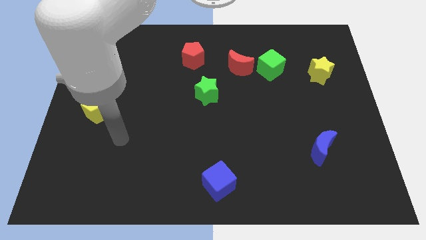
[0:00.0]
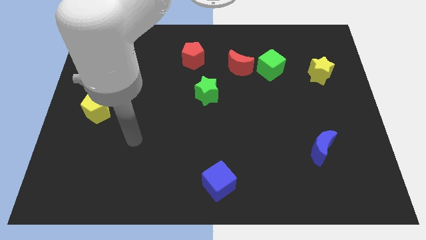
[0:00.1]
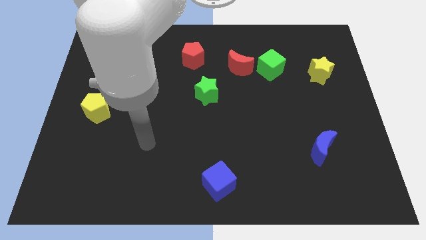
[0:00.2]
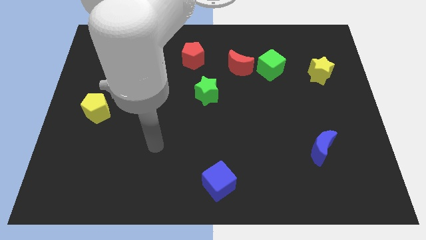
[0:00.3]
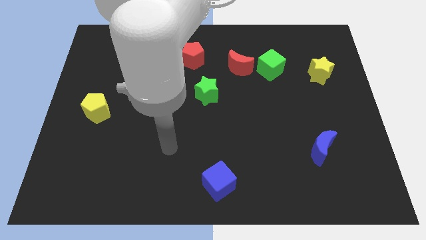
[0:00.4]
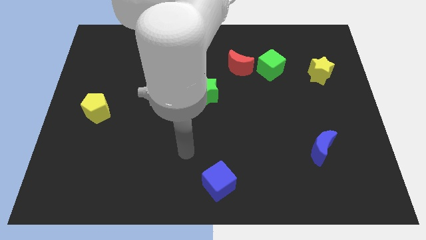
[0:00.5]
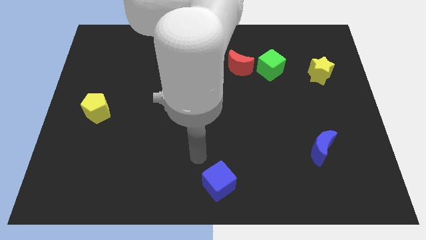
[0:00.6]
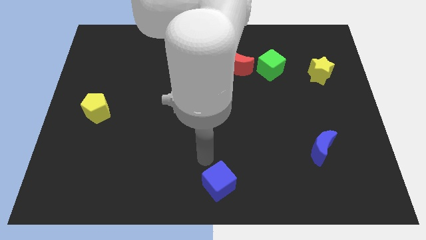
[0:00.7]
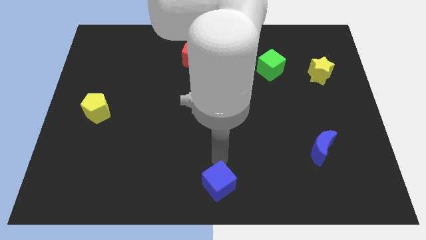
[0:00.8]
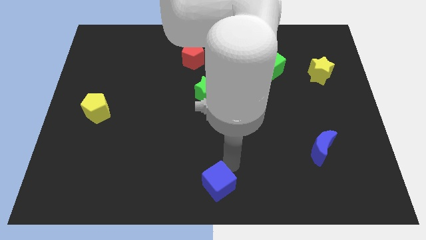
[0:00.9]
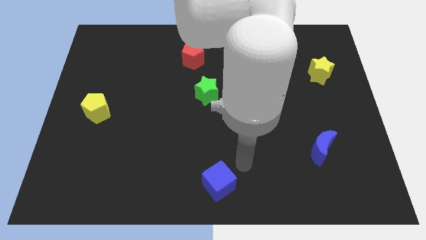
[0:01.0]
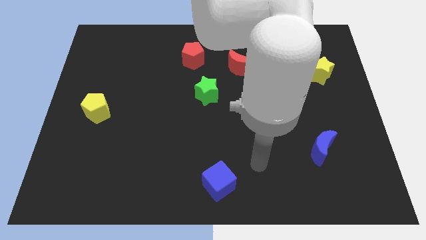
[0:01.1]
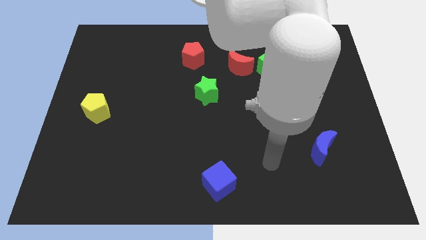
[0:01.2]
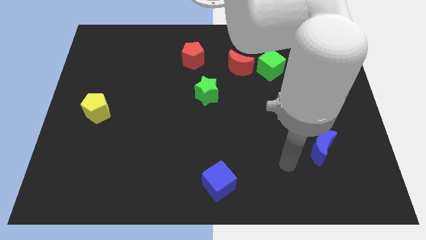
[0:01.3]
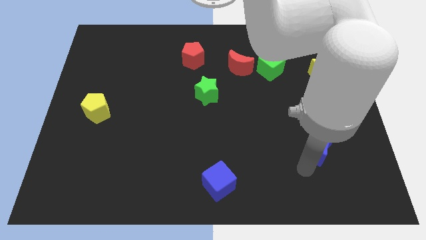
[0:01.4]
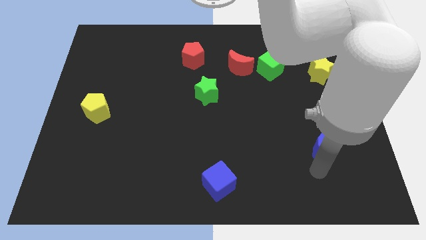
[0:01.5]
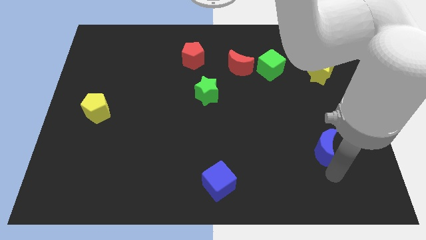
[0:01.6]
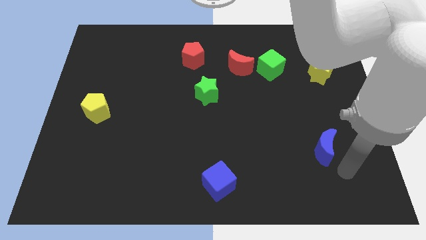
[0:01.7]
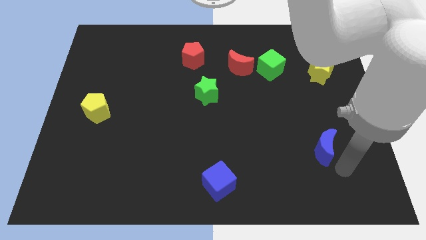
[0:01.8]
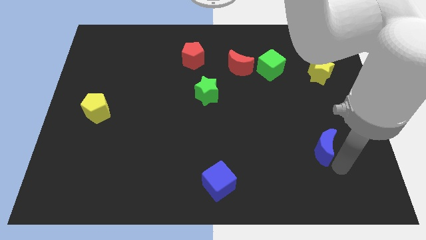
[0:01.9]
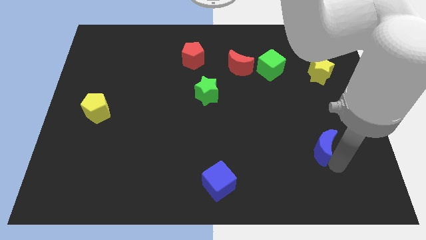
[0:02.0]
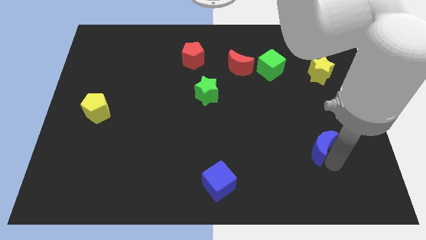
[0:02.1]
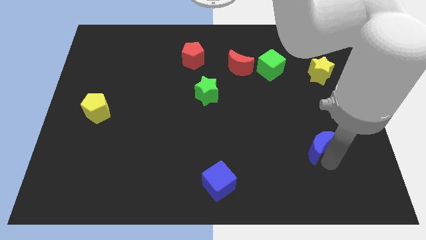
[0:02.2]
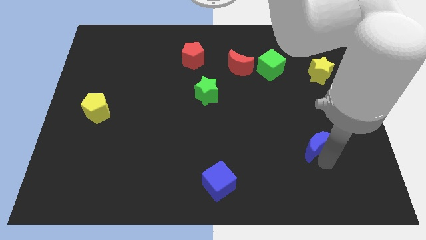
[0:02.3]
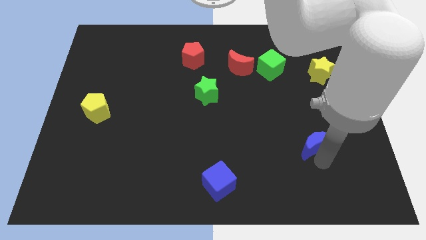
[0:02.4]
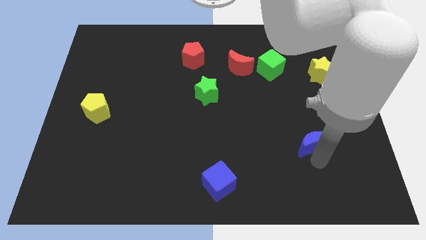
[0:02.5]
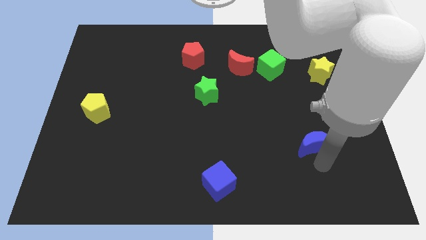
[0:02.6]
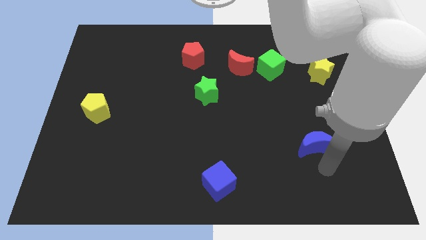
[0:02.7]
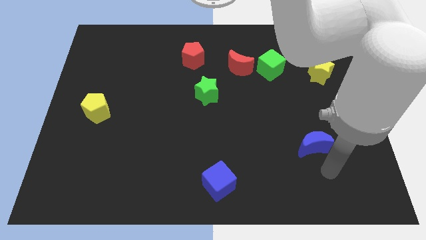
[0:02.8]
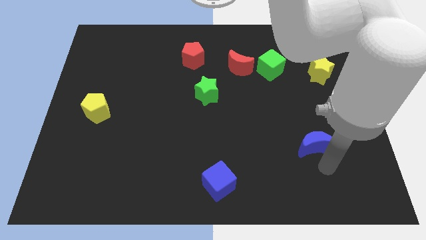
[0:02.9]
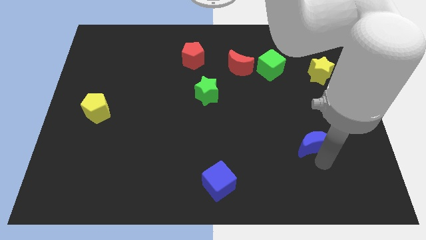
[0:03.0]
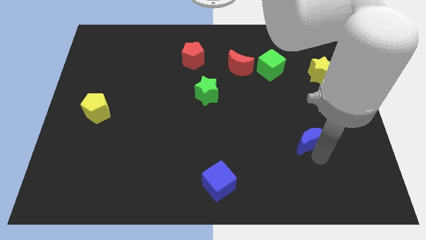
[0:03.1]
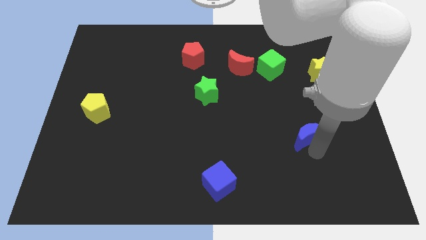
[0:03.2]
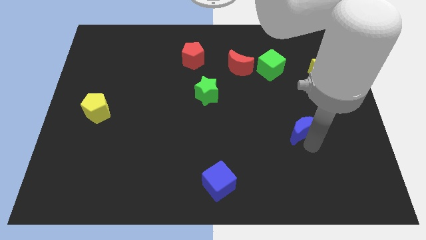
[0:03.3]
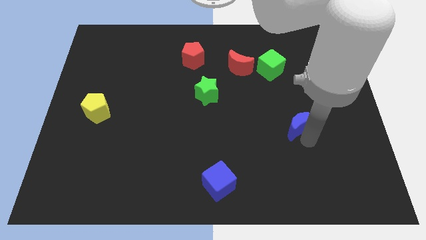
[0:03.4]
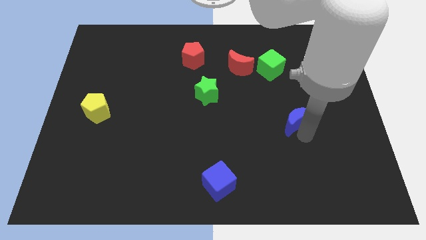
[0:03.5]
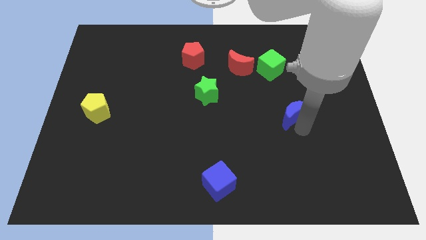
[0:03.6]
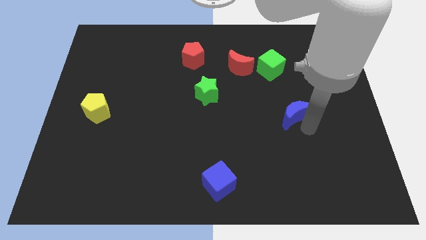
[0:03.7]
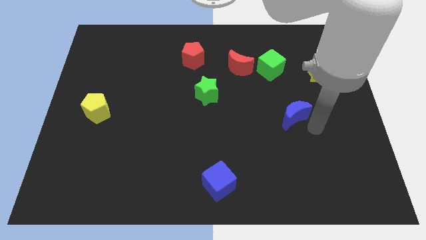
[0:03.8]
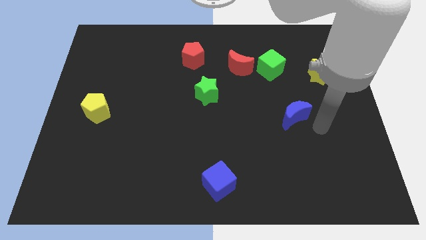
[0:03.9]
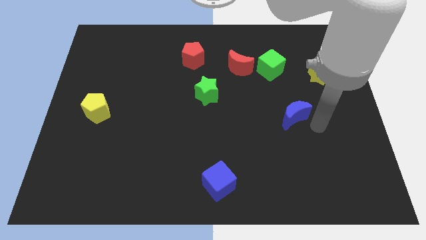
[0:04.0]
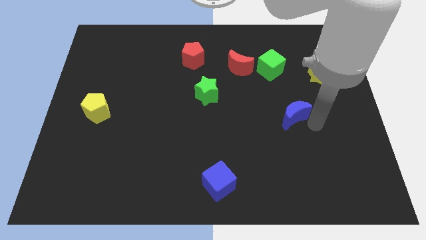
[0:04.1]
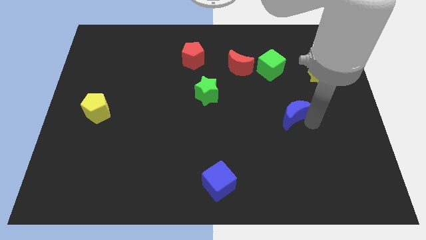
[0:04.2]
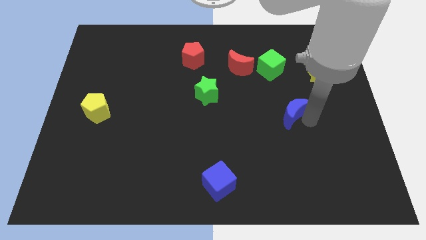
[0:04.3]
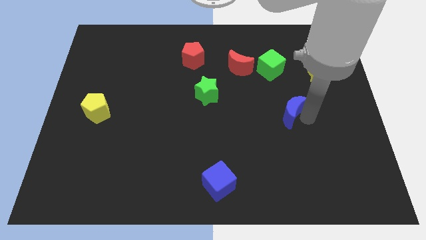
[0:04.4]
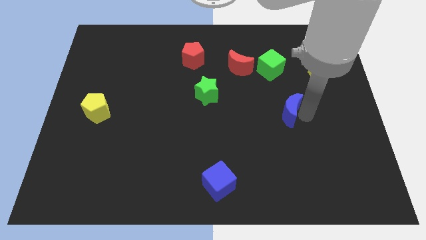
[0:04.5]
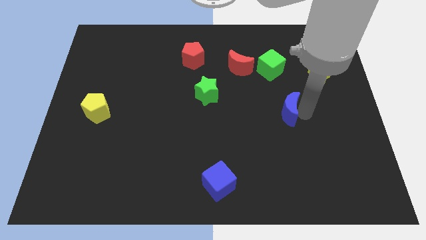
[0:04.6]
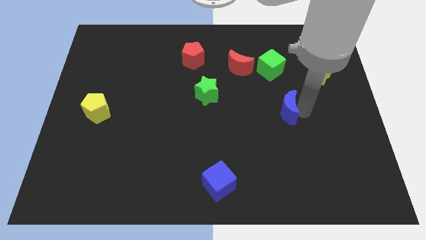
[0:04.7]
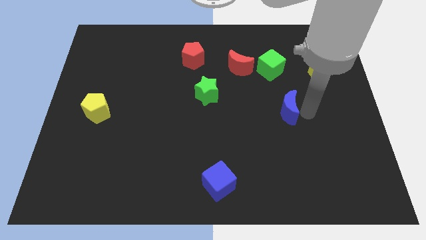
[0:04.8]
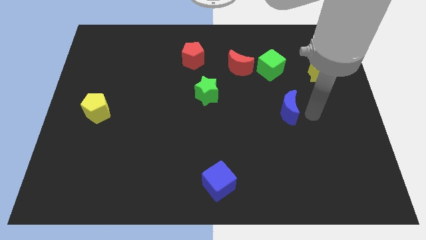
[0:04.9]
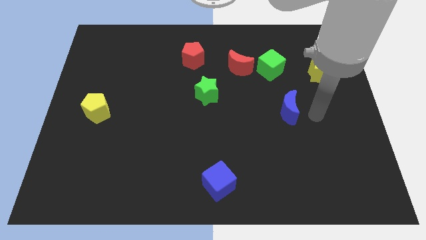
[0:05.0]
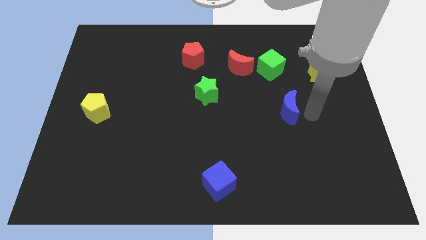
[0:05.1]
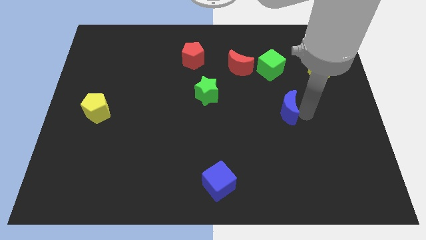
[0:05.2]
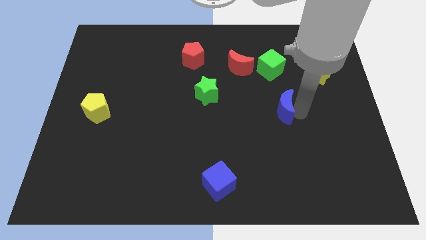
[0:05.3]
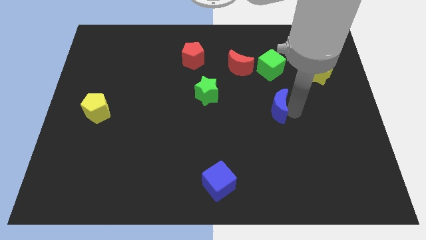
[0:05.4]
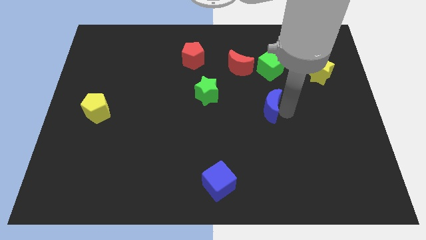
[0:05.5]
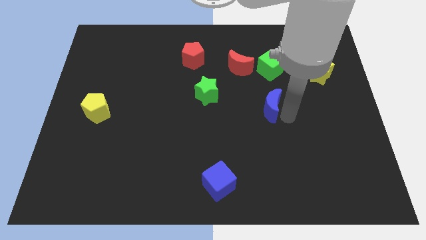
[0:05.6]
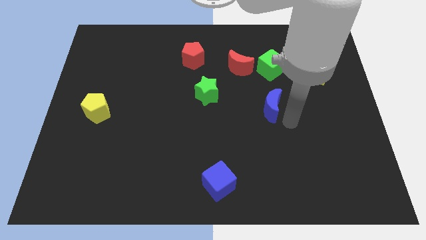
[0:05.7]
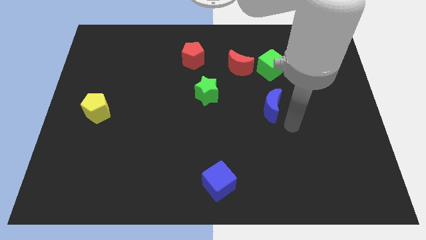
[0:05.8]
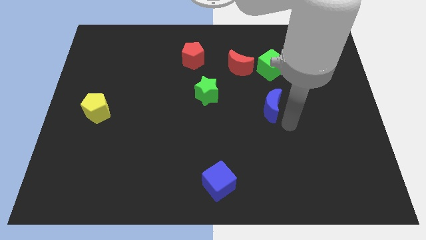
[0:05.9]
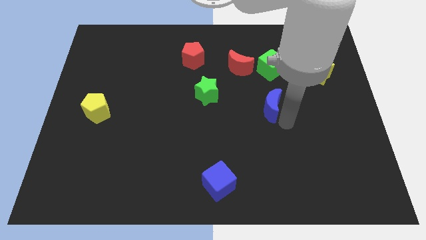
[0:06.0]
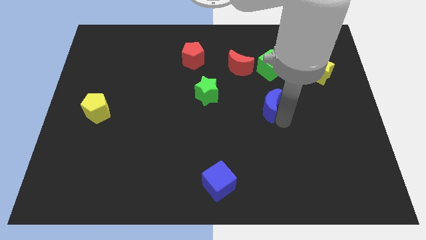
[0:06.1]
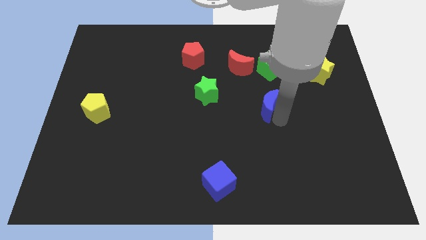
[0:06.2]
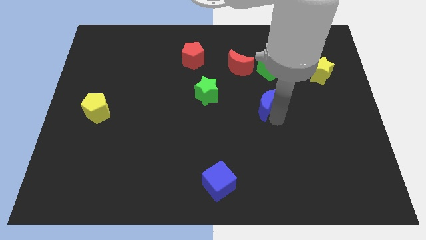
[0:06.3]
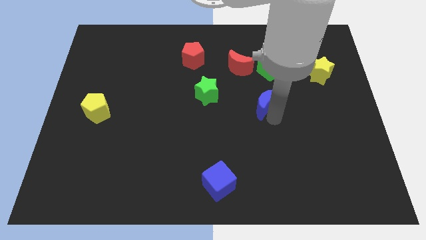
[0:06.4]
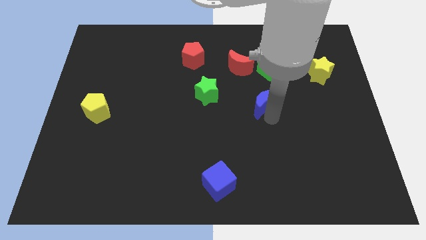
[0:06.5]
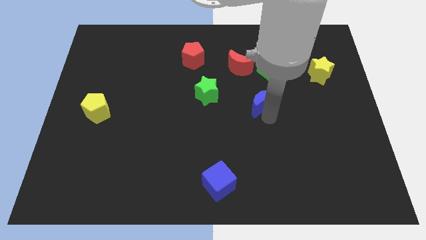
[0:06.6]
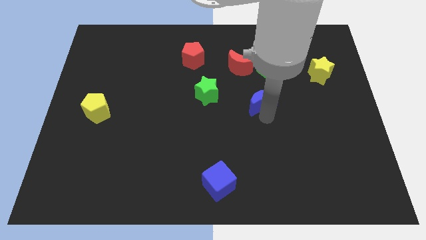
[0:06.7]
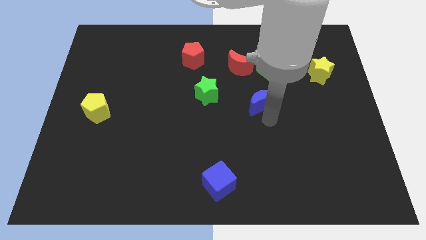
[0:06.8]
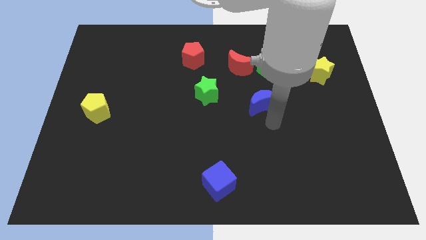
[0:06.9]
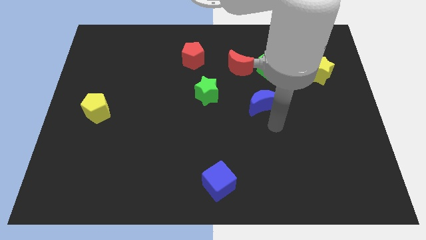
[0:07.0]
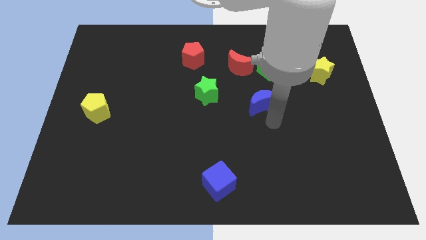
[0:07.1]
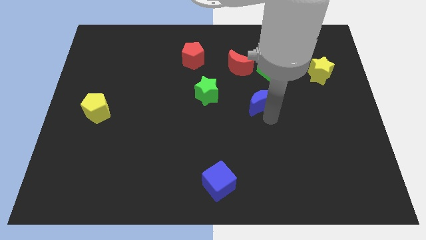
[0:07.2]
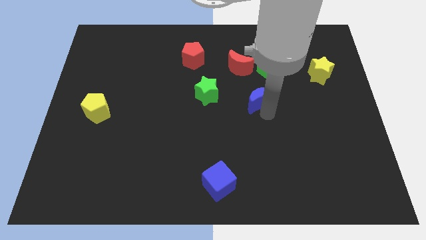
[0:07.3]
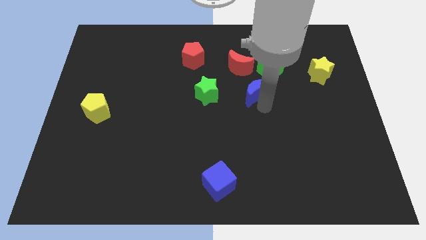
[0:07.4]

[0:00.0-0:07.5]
slide the blue moon diagonally up and left

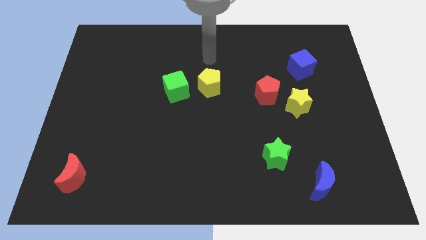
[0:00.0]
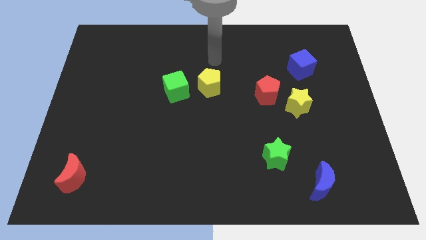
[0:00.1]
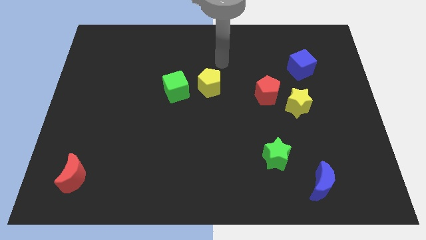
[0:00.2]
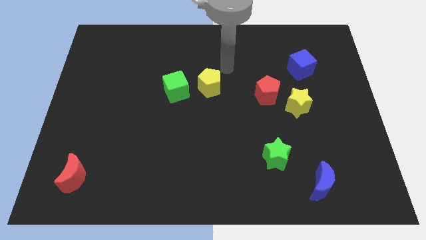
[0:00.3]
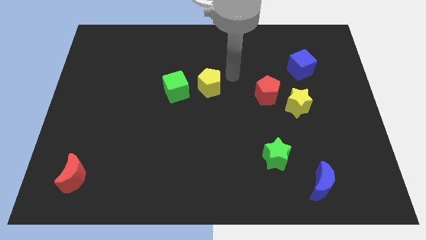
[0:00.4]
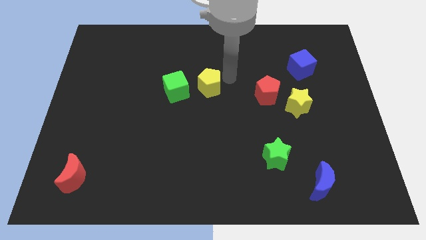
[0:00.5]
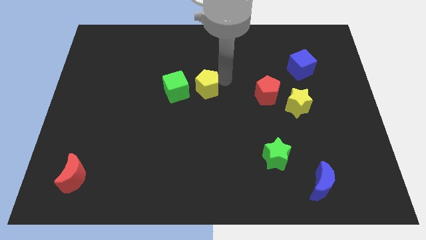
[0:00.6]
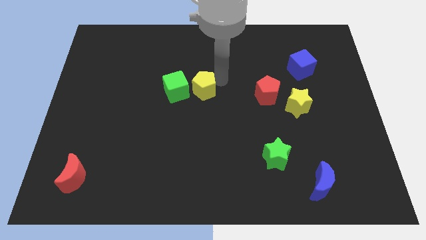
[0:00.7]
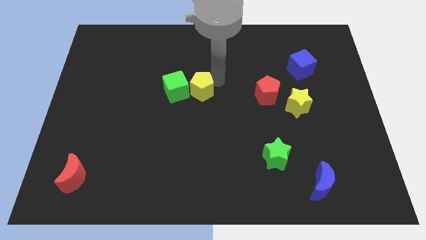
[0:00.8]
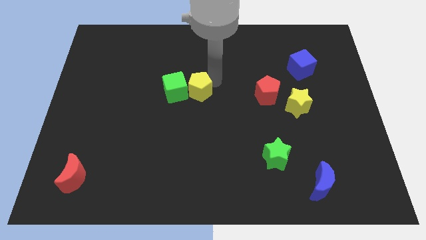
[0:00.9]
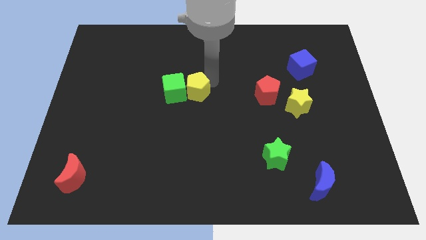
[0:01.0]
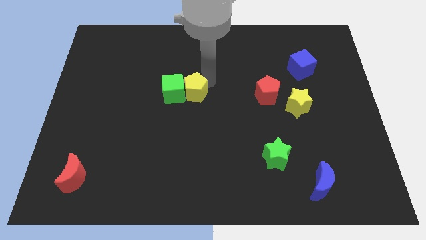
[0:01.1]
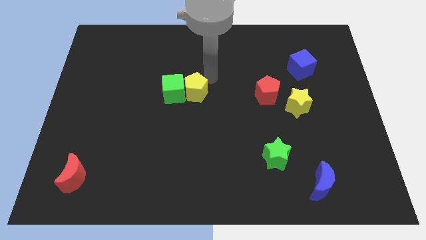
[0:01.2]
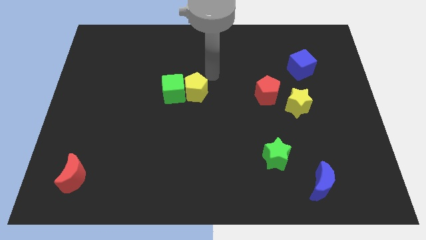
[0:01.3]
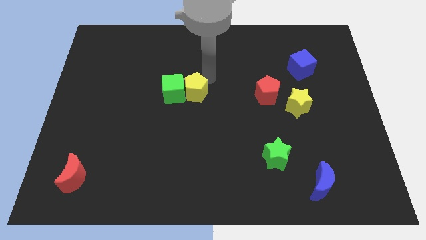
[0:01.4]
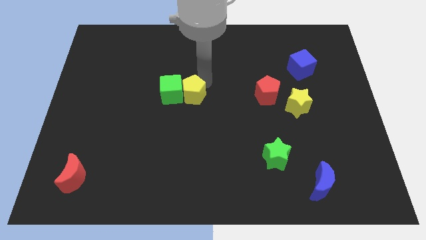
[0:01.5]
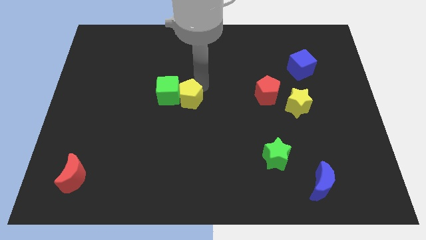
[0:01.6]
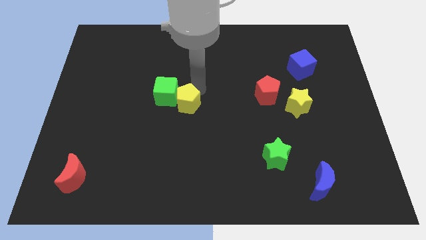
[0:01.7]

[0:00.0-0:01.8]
push the yellow pentagon down and left a little bit
